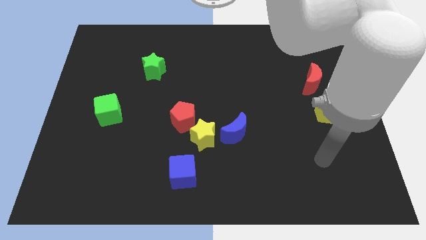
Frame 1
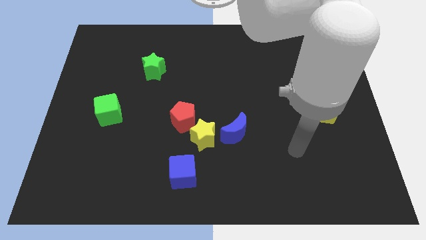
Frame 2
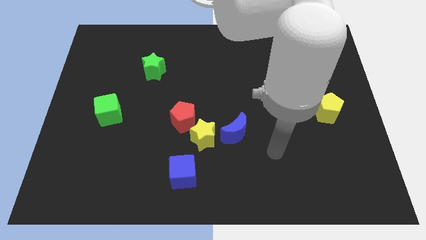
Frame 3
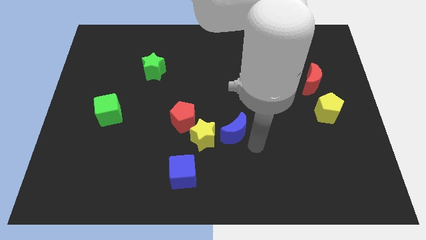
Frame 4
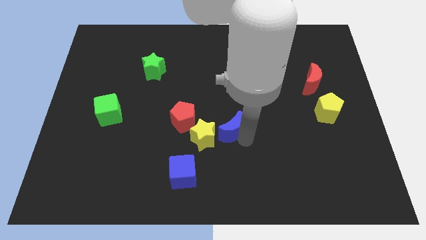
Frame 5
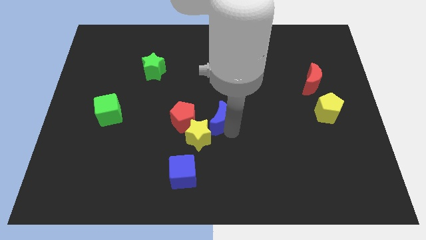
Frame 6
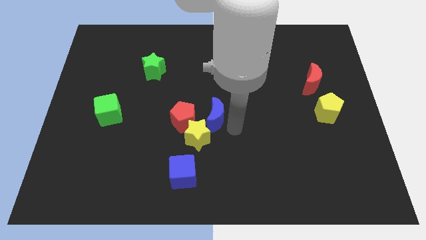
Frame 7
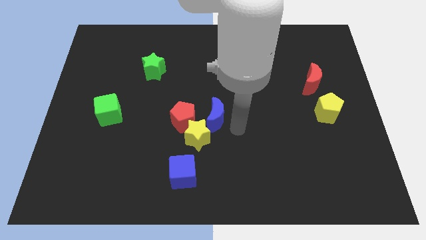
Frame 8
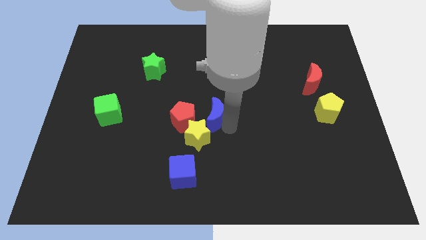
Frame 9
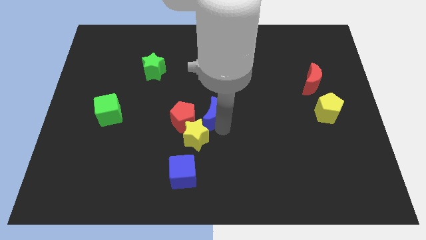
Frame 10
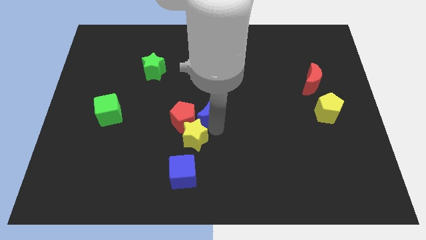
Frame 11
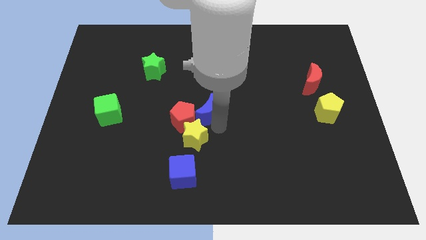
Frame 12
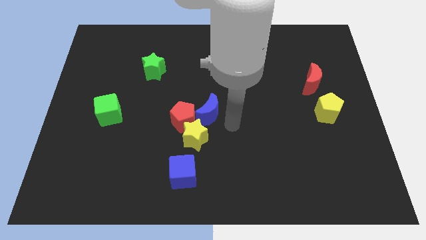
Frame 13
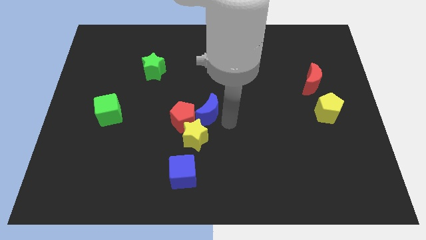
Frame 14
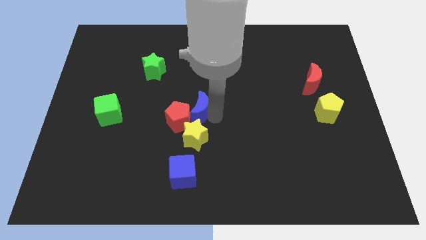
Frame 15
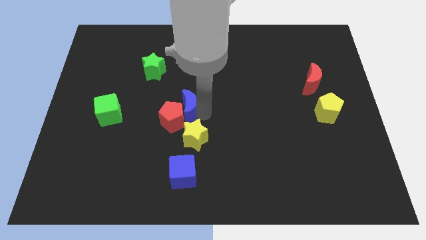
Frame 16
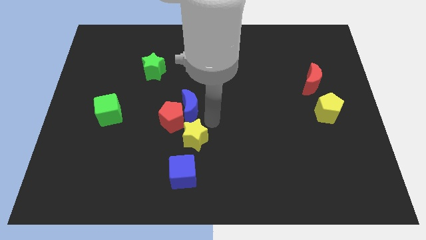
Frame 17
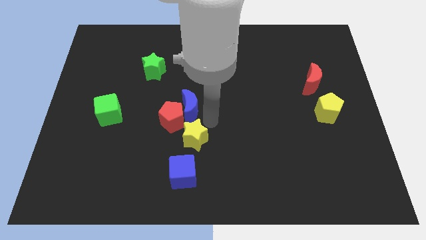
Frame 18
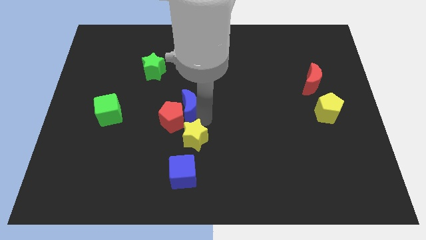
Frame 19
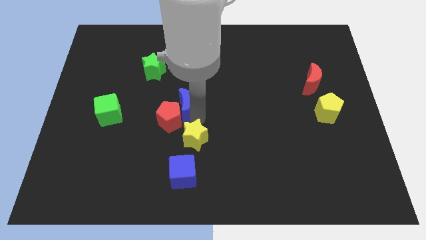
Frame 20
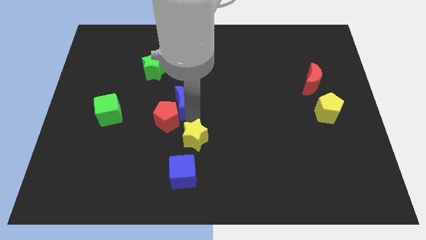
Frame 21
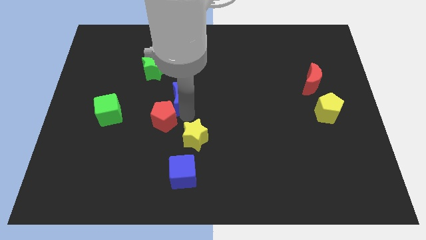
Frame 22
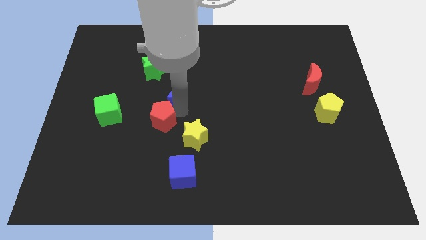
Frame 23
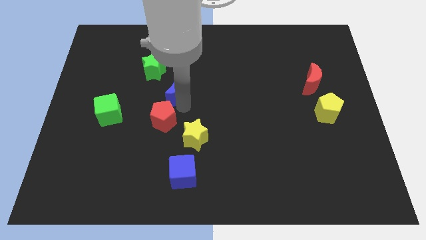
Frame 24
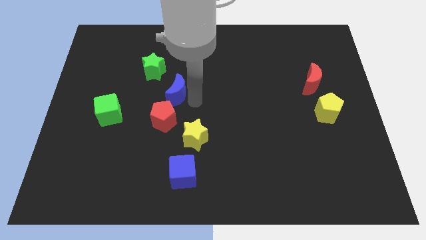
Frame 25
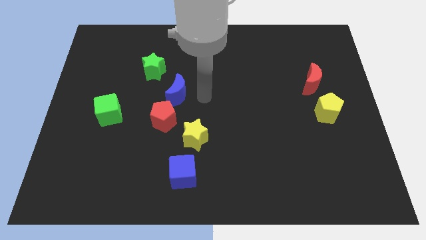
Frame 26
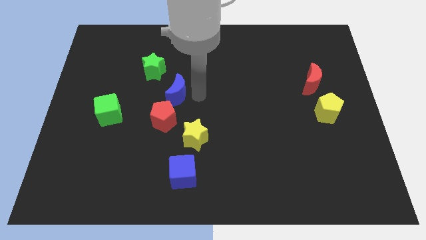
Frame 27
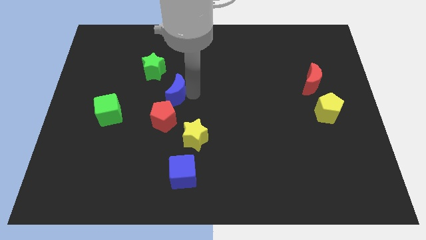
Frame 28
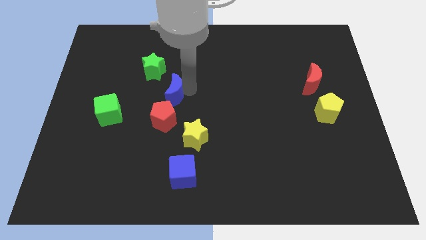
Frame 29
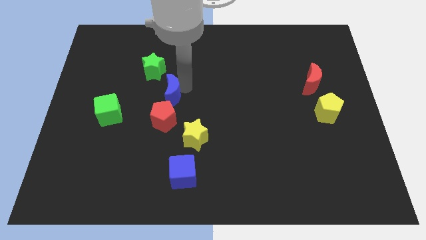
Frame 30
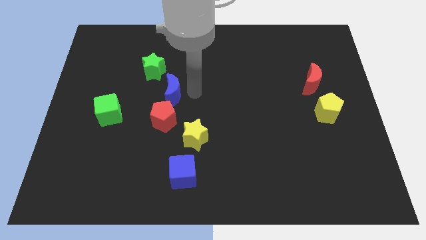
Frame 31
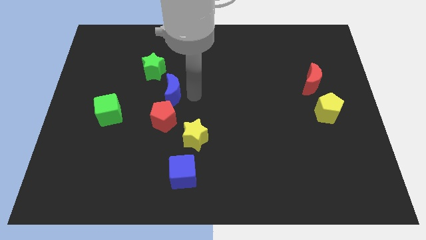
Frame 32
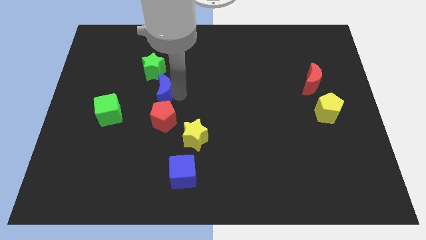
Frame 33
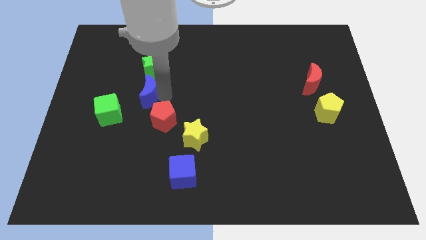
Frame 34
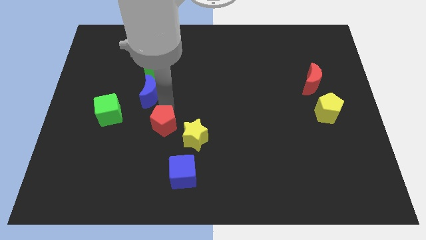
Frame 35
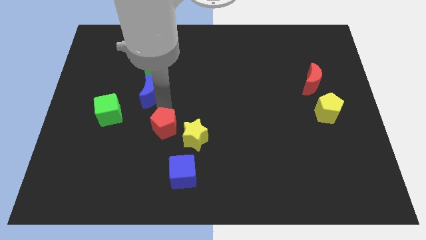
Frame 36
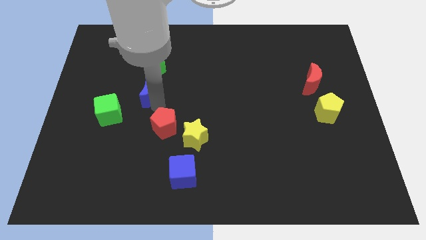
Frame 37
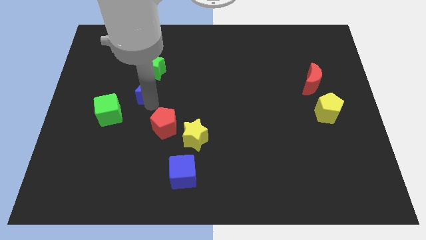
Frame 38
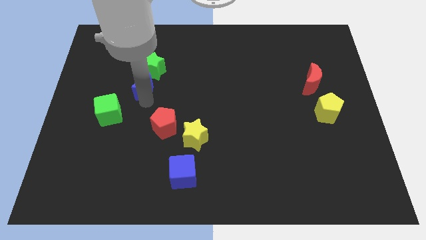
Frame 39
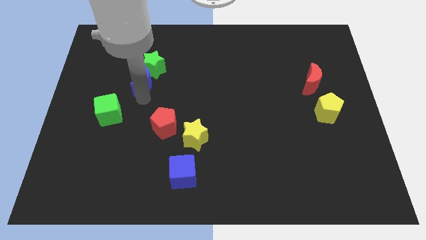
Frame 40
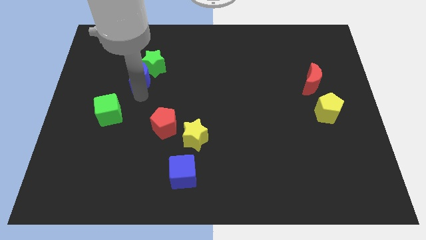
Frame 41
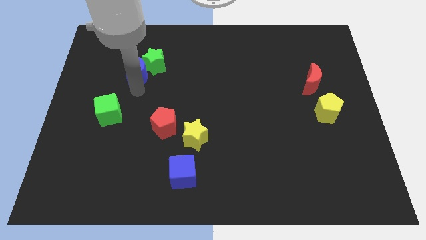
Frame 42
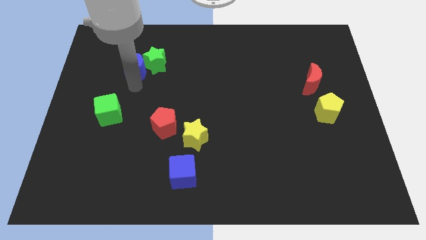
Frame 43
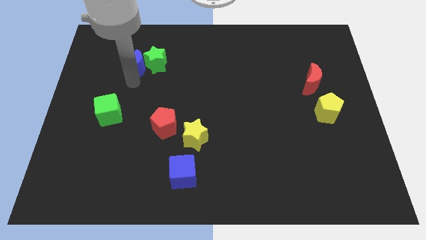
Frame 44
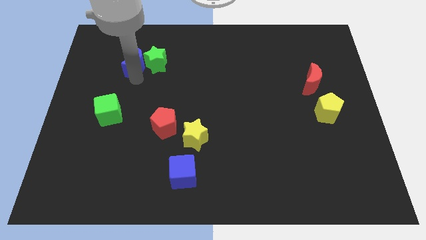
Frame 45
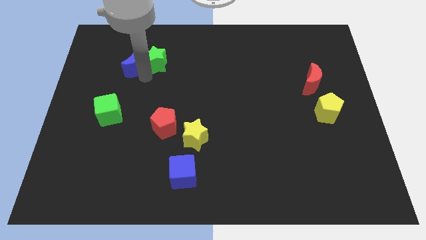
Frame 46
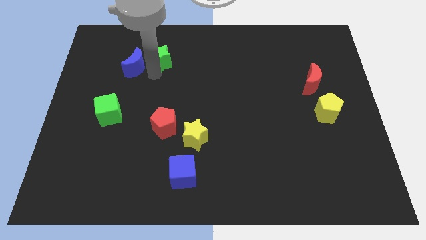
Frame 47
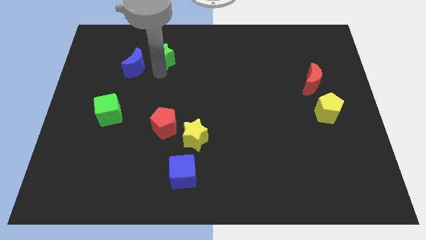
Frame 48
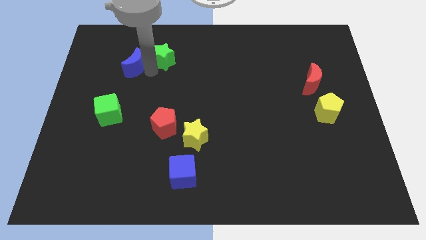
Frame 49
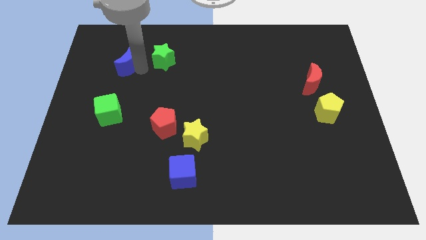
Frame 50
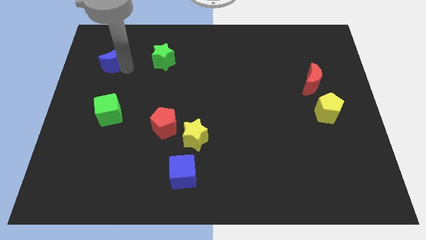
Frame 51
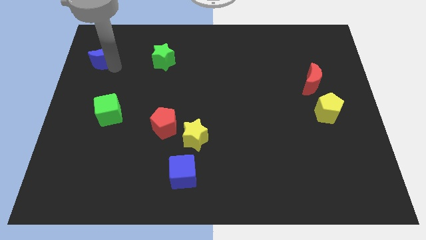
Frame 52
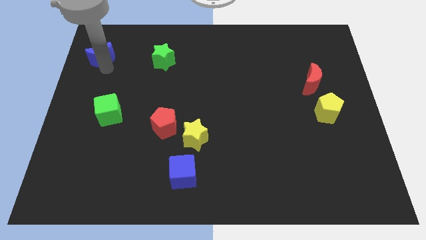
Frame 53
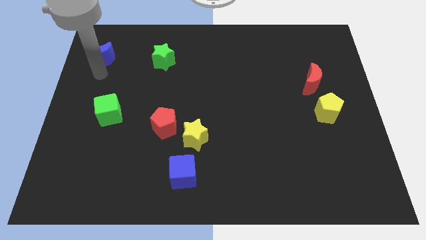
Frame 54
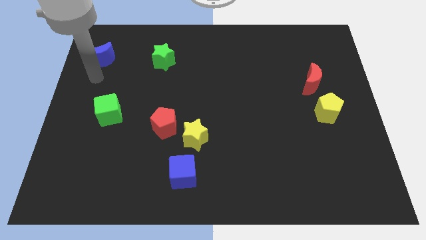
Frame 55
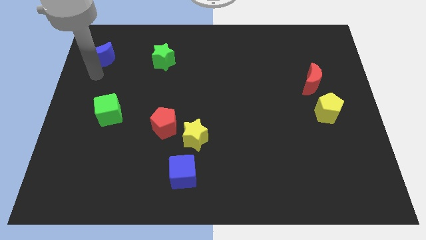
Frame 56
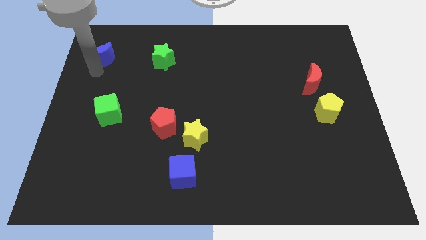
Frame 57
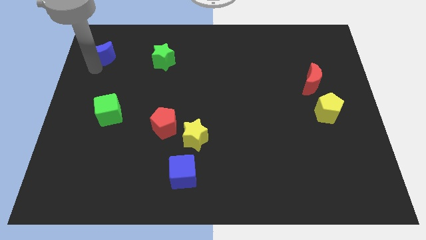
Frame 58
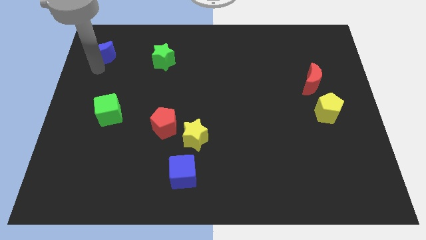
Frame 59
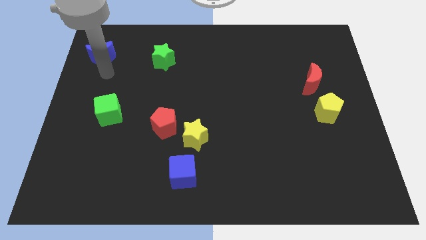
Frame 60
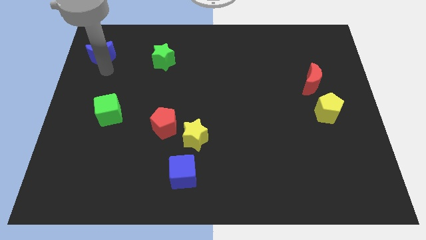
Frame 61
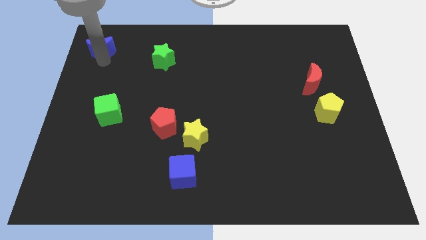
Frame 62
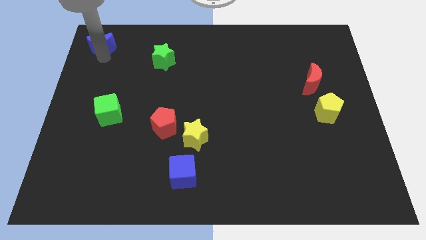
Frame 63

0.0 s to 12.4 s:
slide the blue moon to the top left of the board
